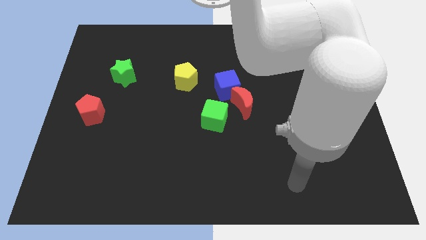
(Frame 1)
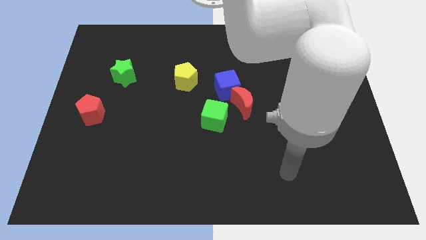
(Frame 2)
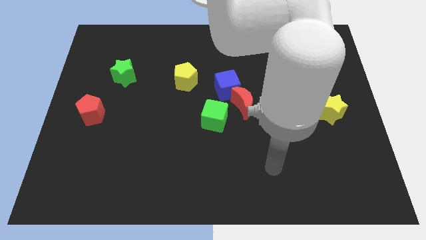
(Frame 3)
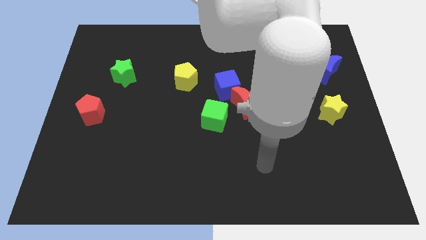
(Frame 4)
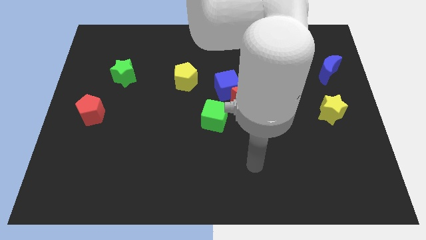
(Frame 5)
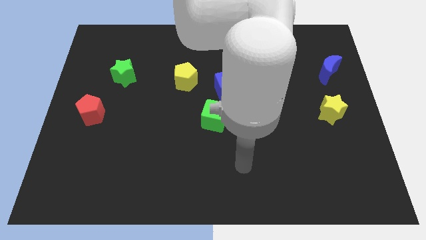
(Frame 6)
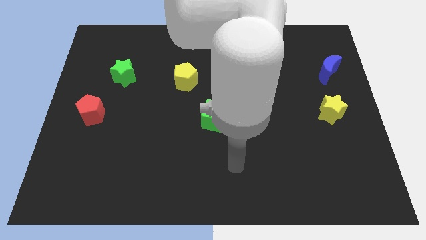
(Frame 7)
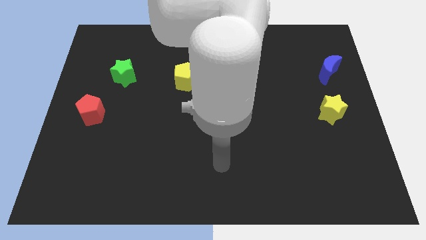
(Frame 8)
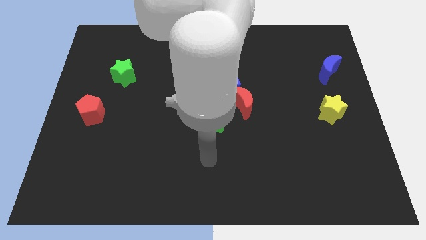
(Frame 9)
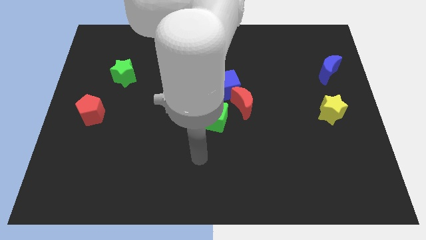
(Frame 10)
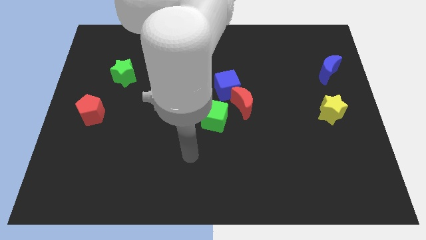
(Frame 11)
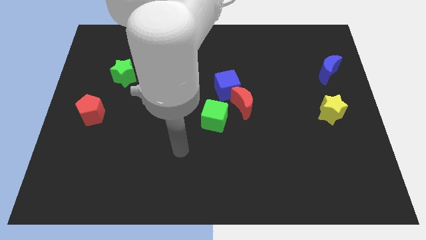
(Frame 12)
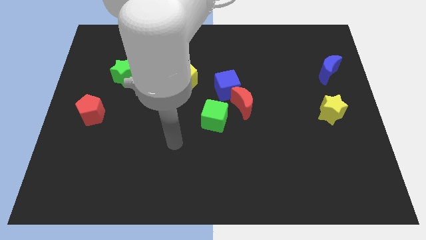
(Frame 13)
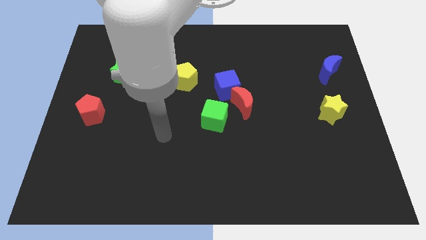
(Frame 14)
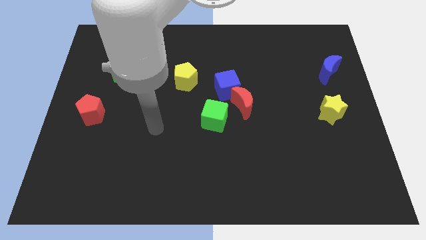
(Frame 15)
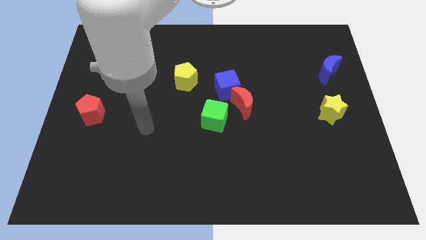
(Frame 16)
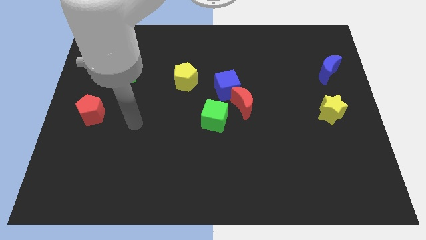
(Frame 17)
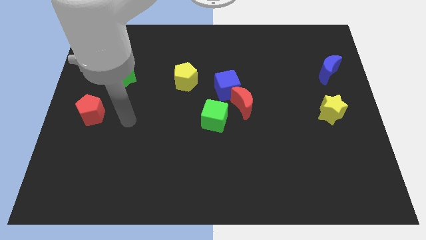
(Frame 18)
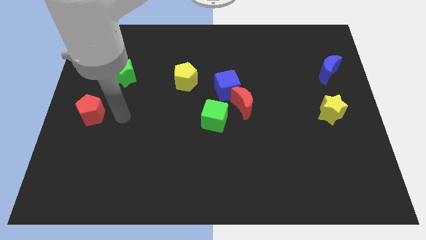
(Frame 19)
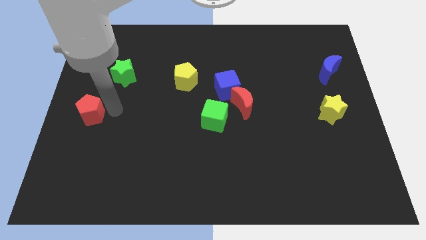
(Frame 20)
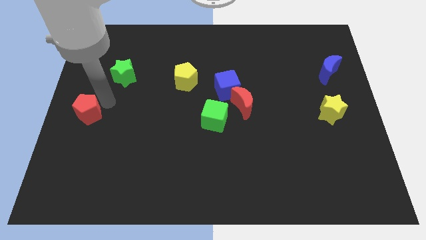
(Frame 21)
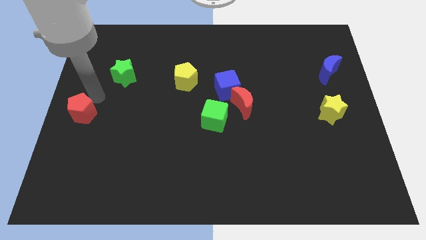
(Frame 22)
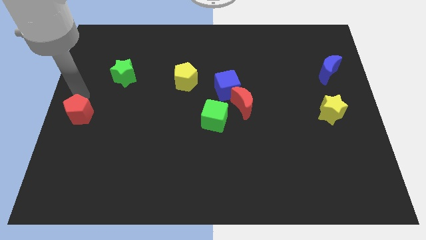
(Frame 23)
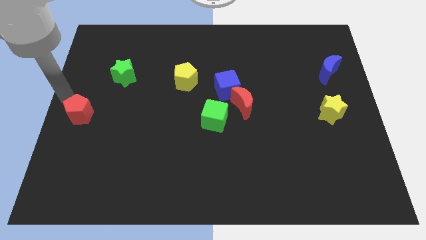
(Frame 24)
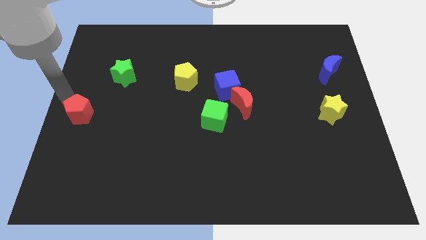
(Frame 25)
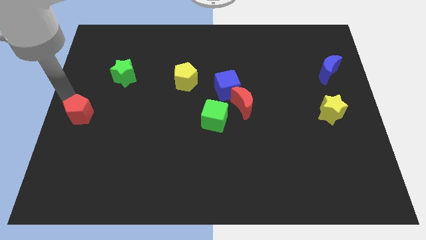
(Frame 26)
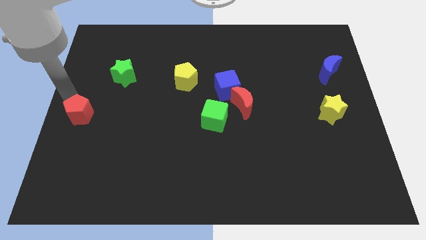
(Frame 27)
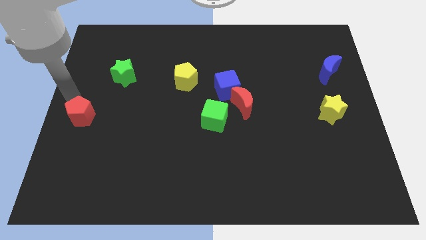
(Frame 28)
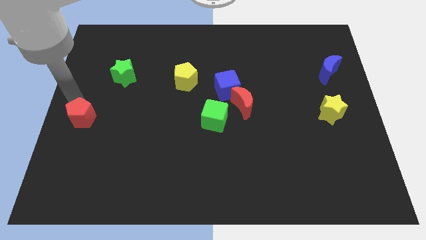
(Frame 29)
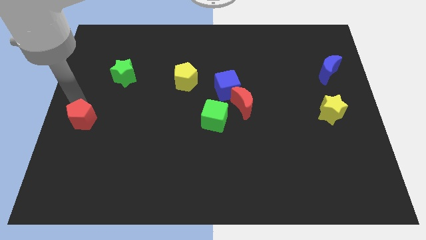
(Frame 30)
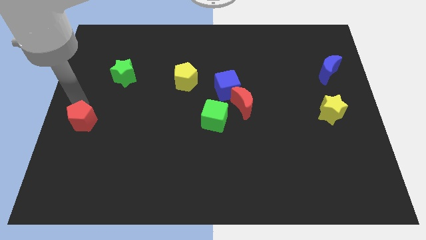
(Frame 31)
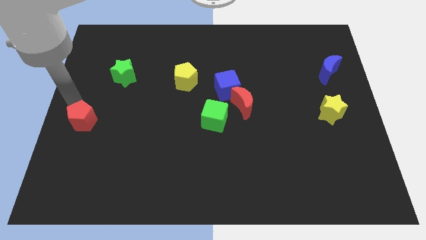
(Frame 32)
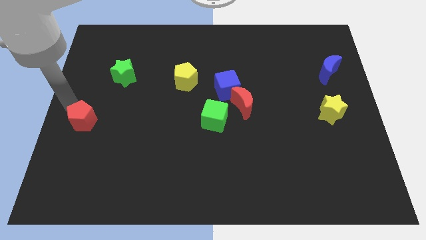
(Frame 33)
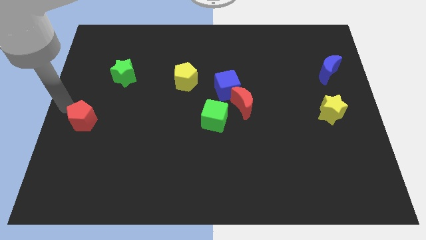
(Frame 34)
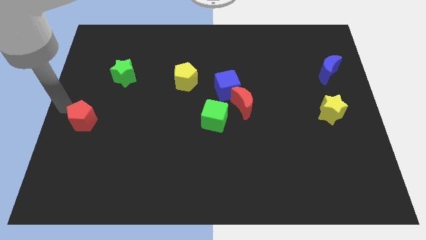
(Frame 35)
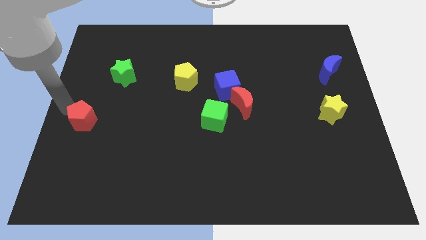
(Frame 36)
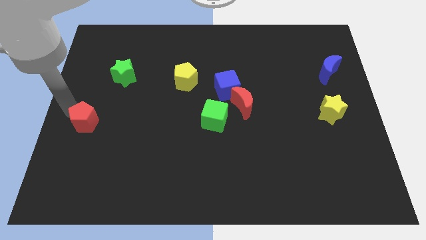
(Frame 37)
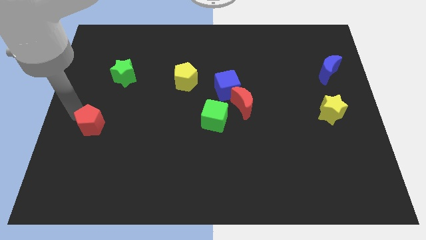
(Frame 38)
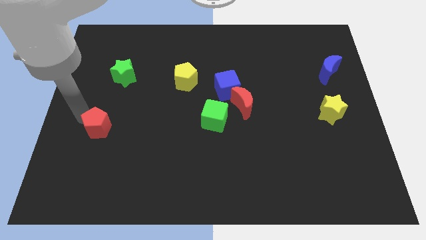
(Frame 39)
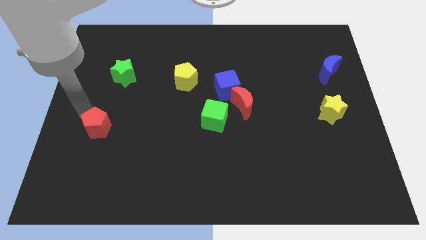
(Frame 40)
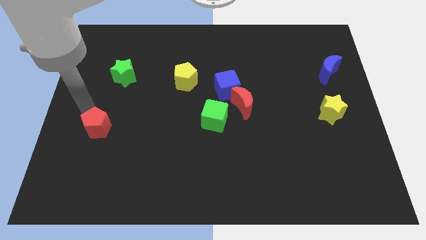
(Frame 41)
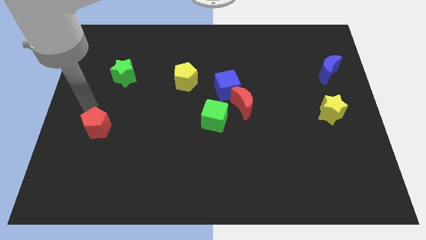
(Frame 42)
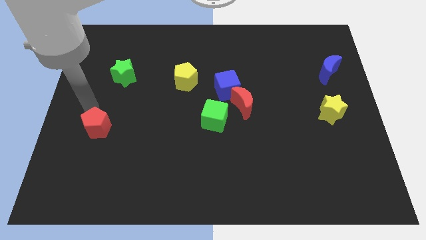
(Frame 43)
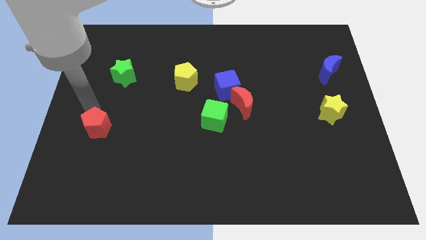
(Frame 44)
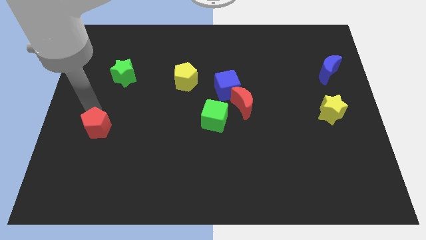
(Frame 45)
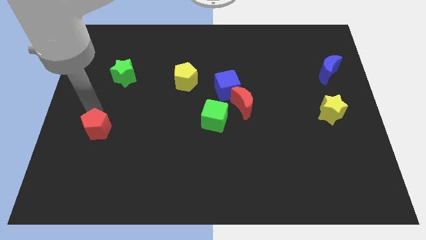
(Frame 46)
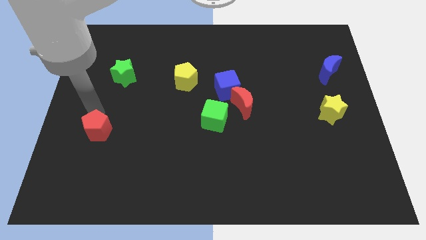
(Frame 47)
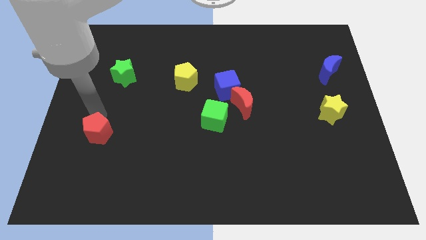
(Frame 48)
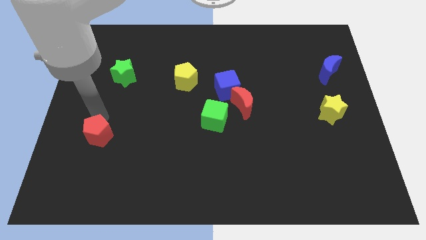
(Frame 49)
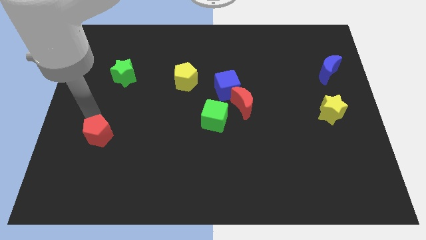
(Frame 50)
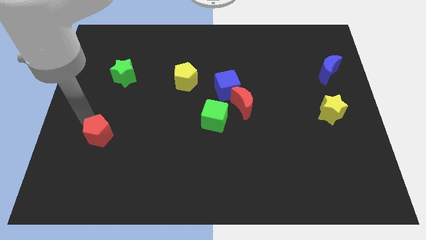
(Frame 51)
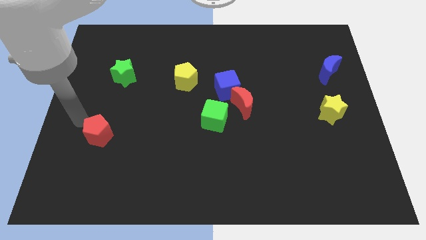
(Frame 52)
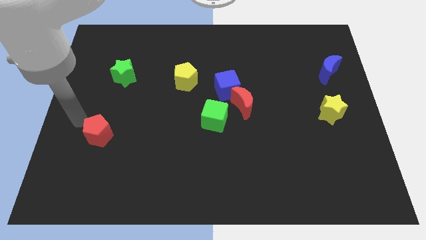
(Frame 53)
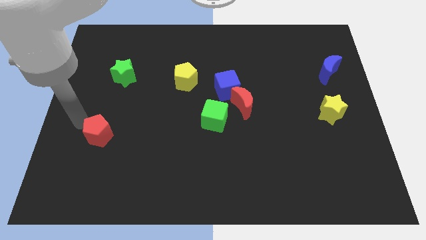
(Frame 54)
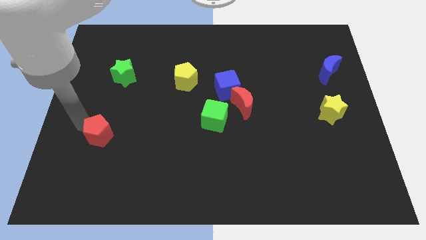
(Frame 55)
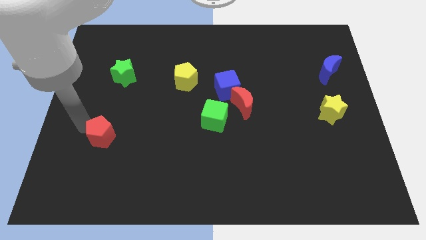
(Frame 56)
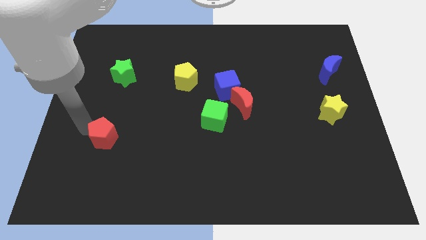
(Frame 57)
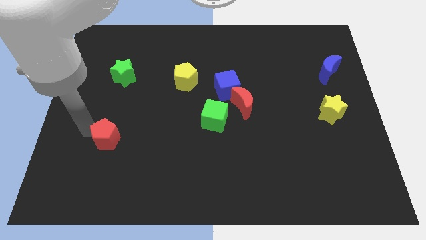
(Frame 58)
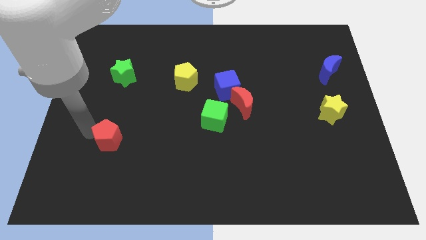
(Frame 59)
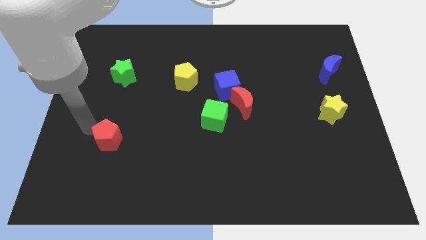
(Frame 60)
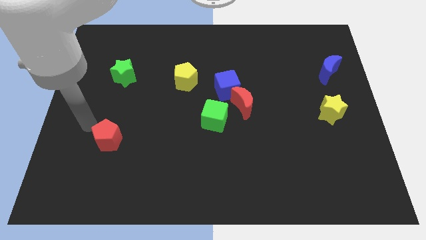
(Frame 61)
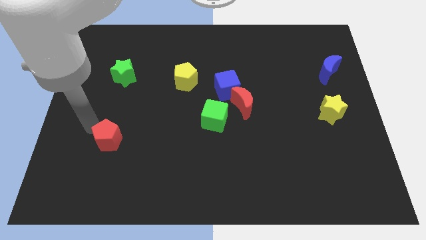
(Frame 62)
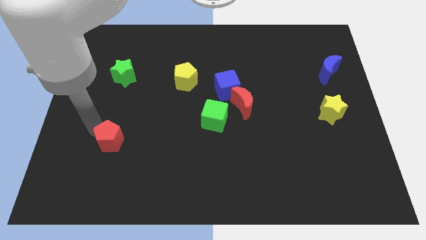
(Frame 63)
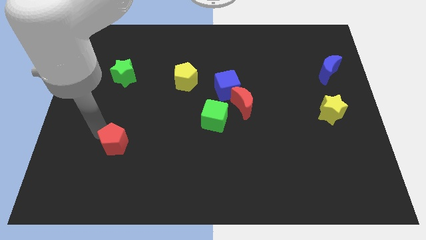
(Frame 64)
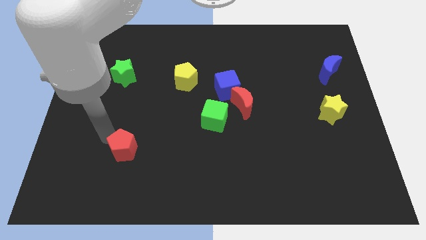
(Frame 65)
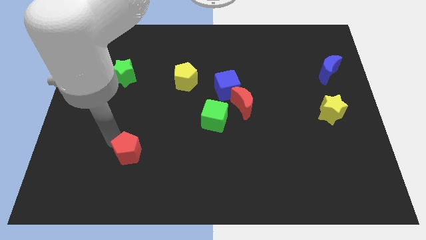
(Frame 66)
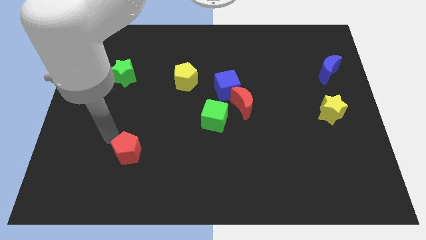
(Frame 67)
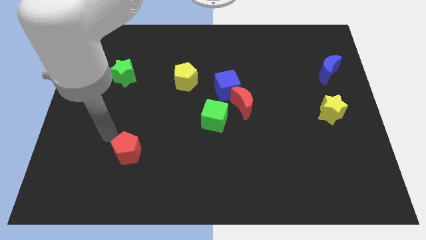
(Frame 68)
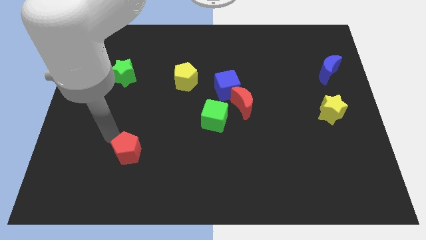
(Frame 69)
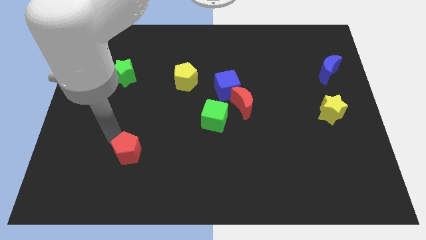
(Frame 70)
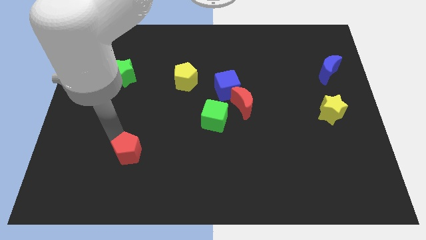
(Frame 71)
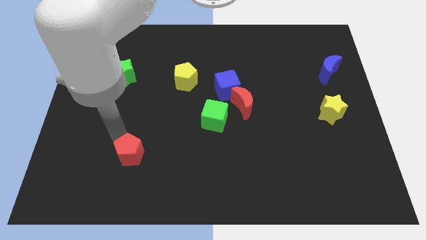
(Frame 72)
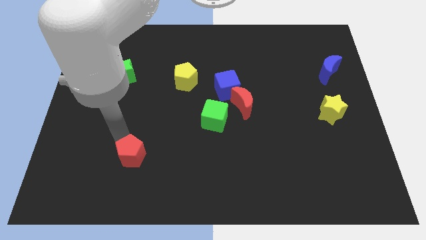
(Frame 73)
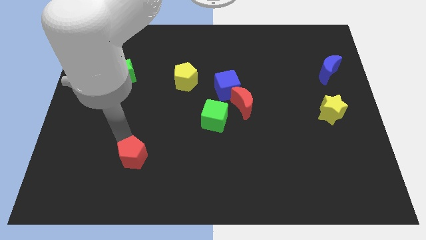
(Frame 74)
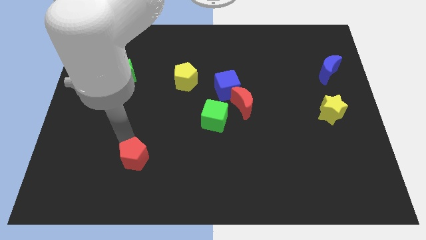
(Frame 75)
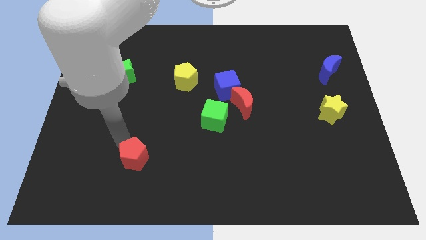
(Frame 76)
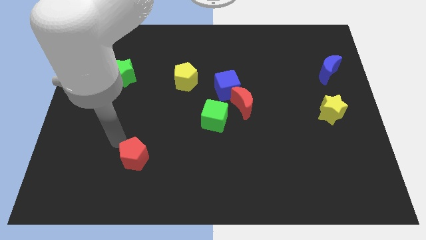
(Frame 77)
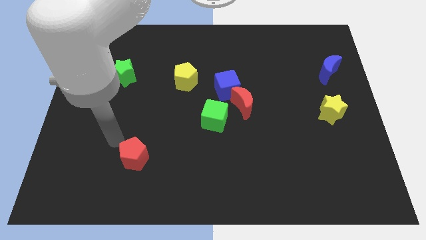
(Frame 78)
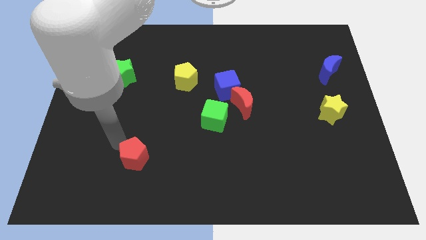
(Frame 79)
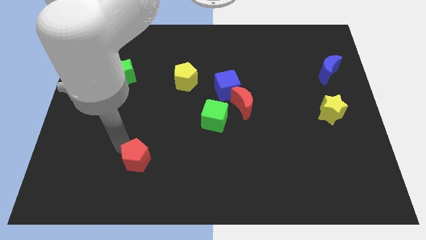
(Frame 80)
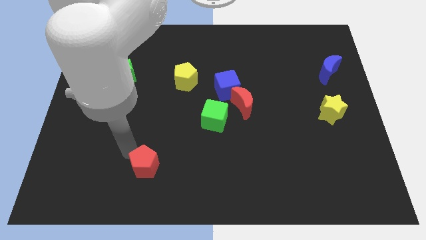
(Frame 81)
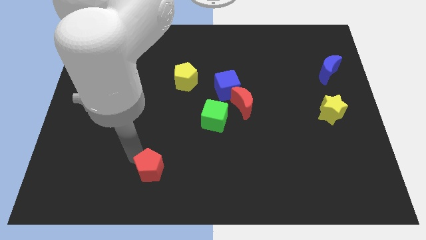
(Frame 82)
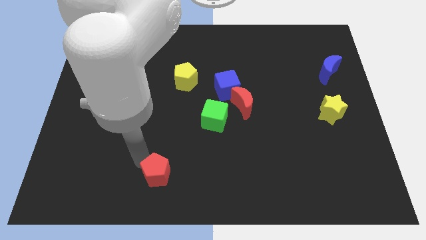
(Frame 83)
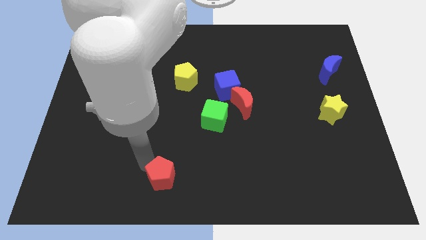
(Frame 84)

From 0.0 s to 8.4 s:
move the red pentagon to the bottom
